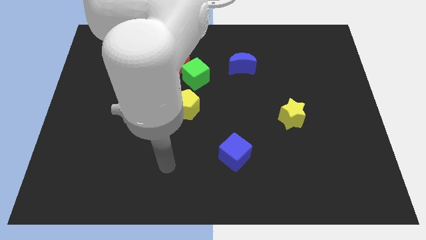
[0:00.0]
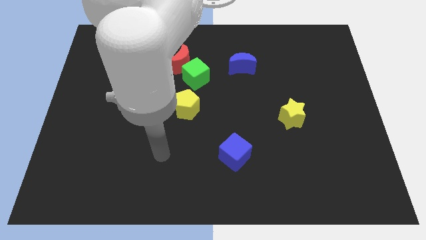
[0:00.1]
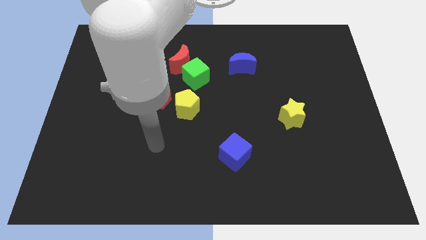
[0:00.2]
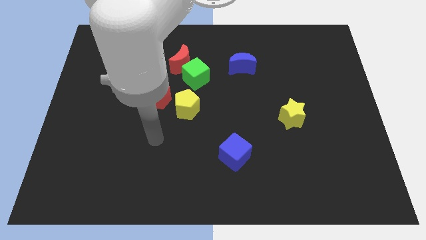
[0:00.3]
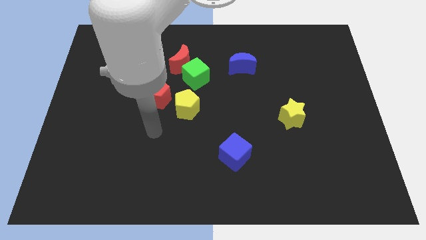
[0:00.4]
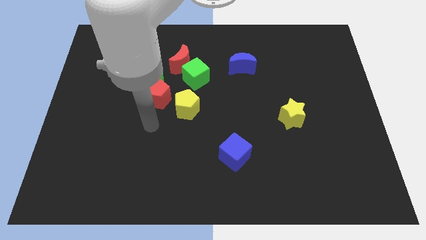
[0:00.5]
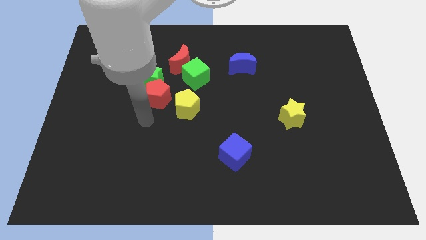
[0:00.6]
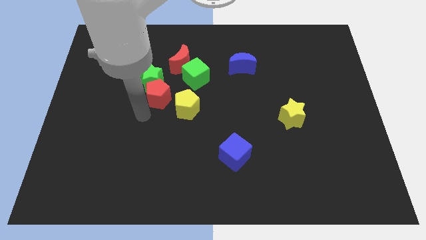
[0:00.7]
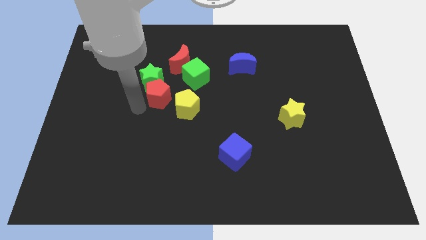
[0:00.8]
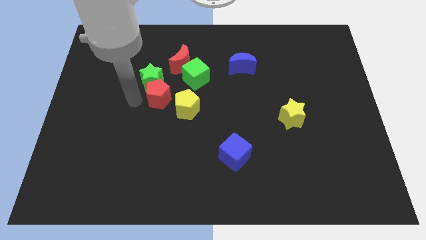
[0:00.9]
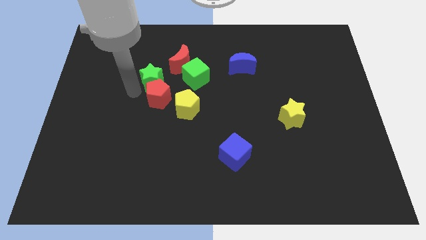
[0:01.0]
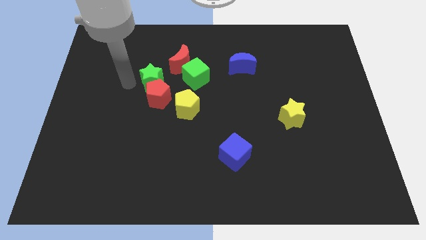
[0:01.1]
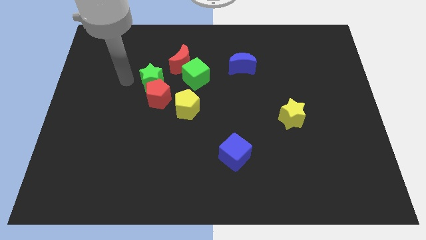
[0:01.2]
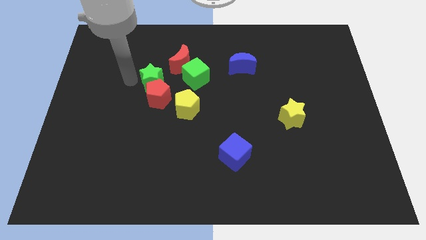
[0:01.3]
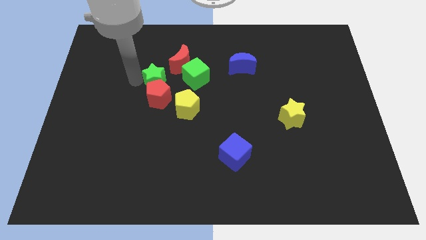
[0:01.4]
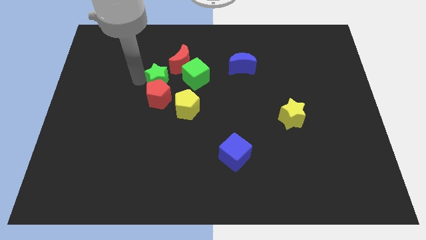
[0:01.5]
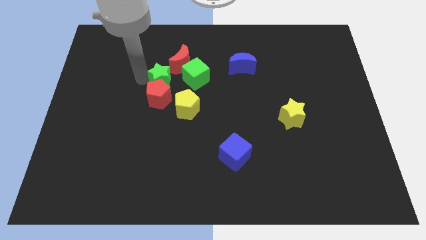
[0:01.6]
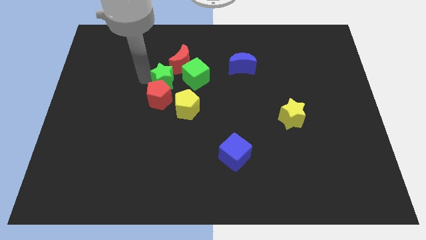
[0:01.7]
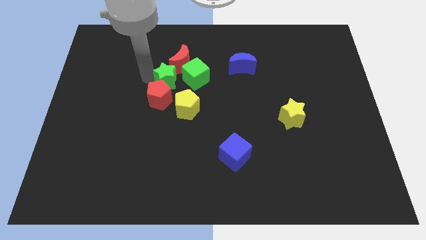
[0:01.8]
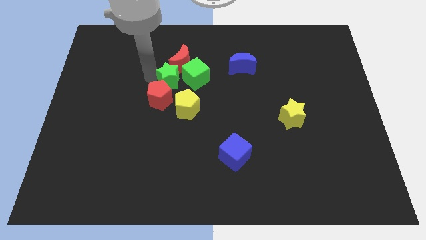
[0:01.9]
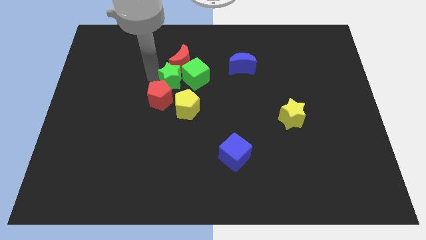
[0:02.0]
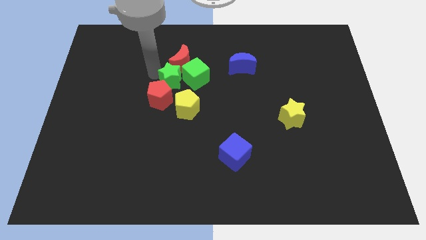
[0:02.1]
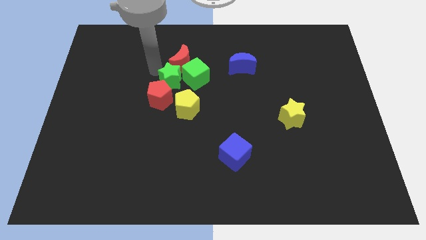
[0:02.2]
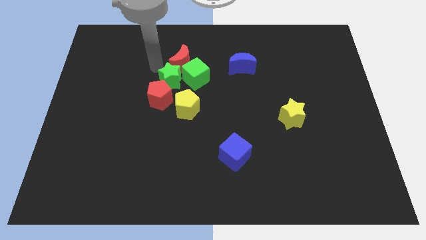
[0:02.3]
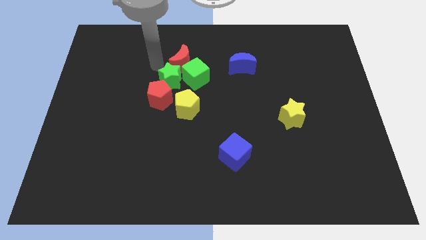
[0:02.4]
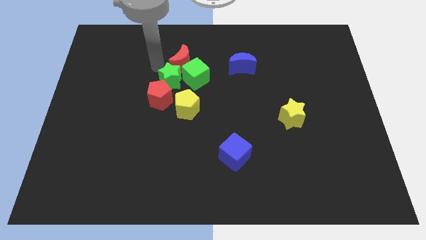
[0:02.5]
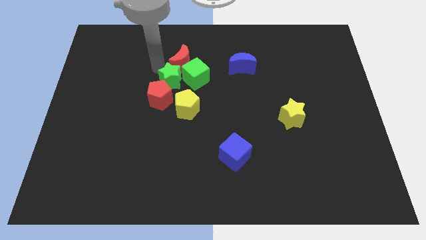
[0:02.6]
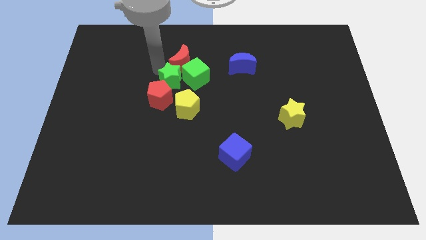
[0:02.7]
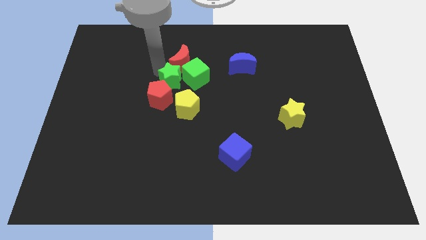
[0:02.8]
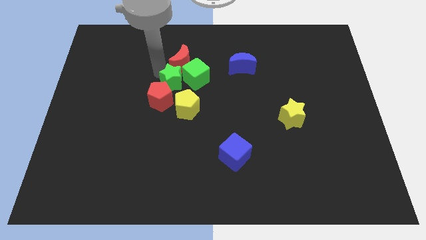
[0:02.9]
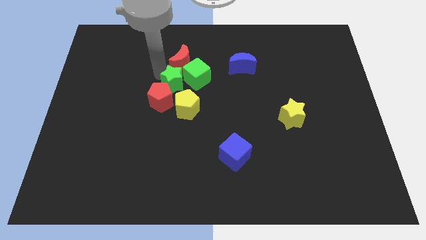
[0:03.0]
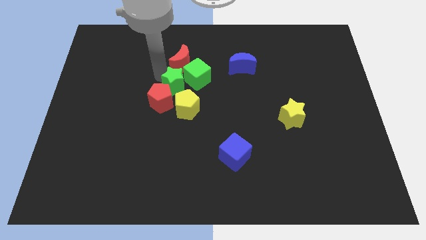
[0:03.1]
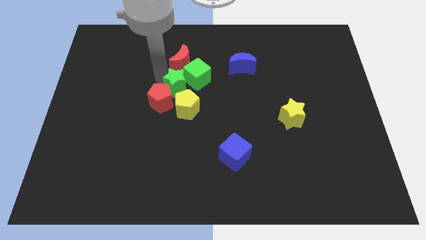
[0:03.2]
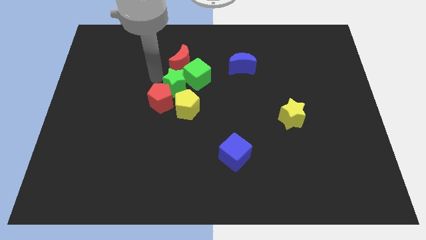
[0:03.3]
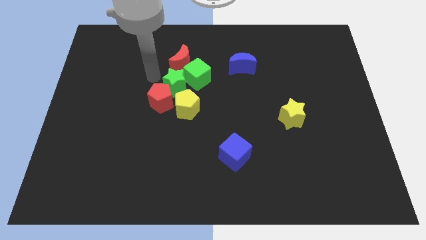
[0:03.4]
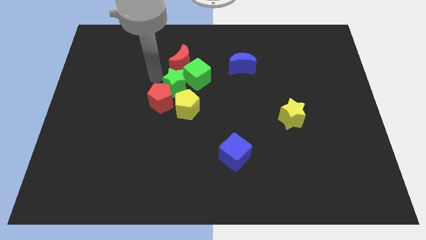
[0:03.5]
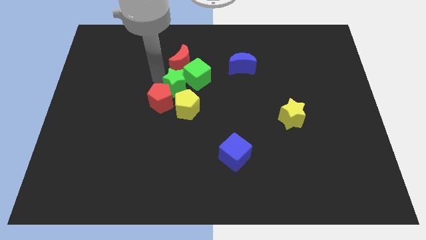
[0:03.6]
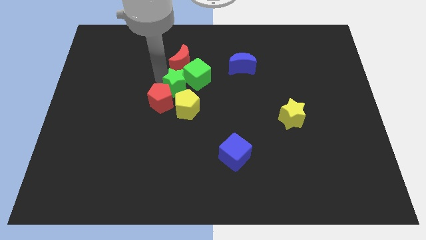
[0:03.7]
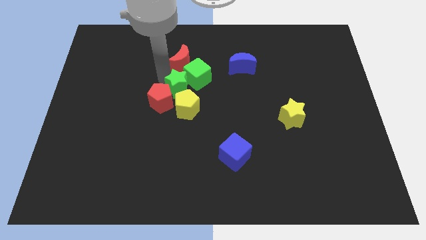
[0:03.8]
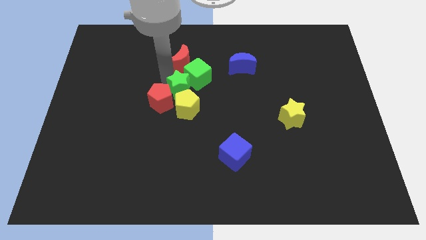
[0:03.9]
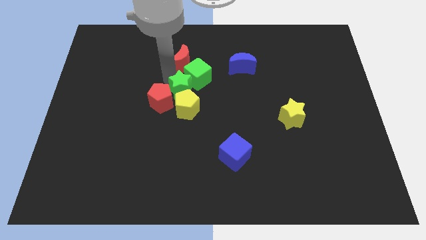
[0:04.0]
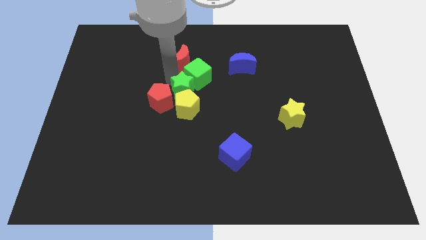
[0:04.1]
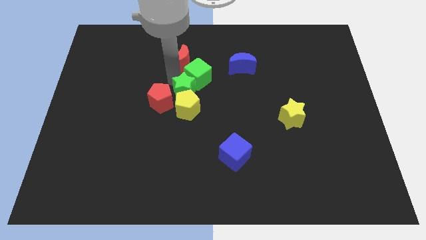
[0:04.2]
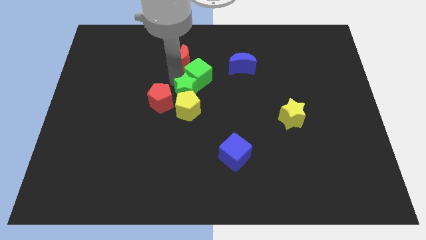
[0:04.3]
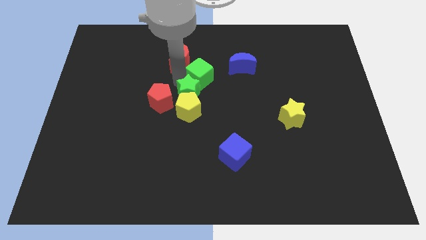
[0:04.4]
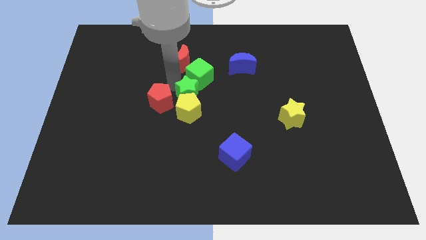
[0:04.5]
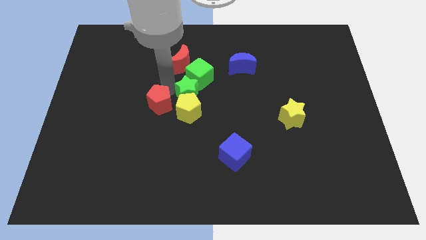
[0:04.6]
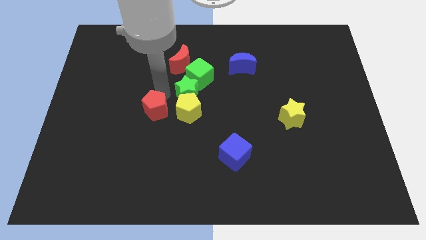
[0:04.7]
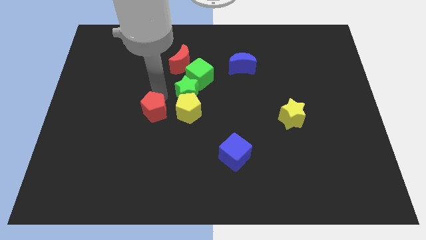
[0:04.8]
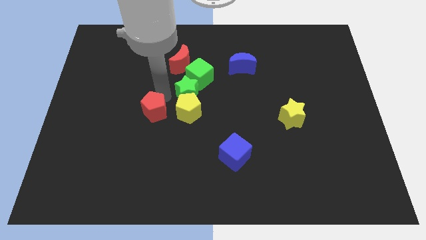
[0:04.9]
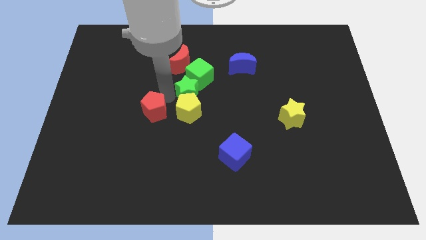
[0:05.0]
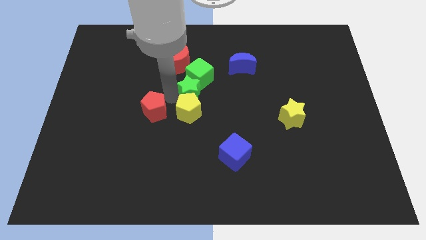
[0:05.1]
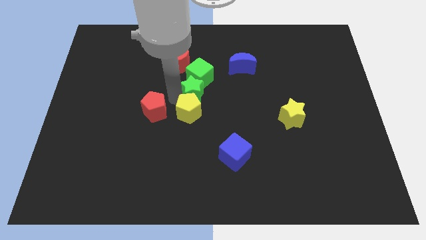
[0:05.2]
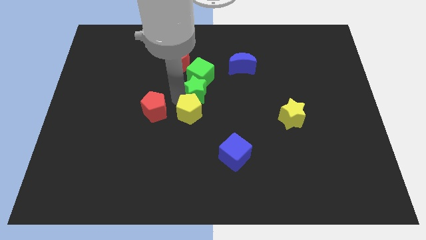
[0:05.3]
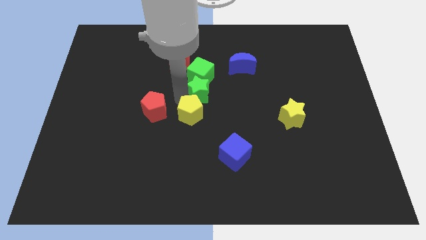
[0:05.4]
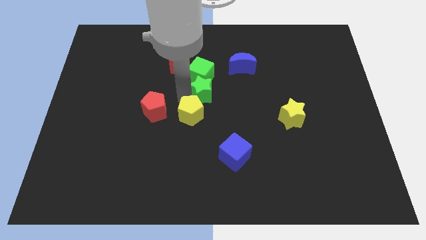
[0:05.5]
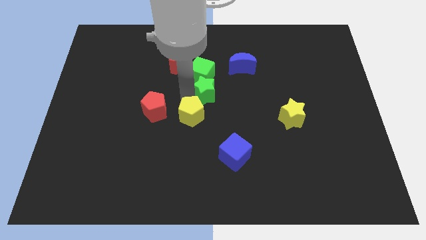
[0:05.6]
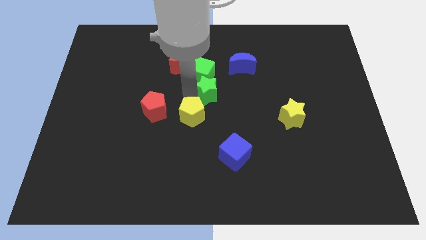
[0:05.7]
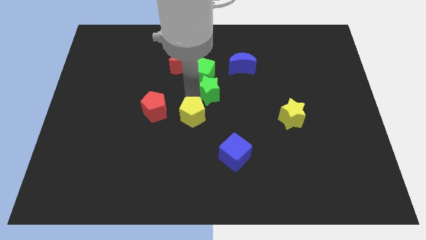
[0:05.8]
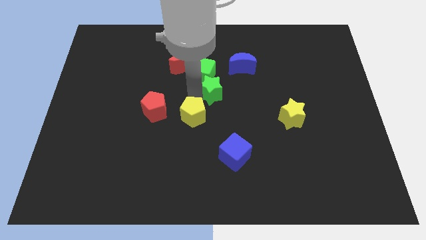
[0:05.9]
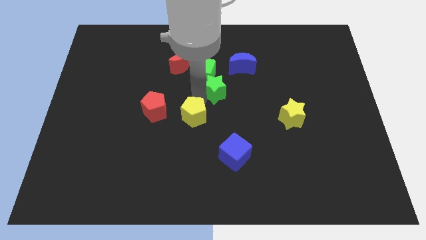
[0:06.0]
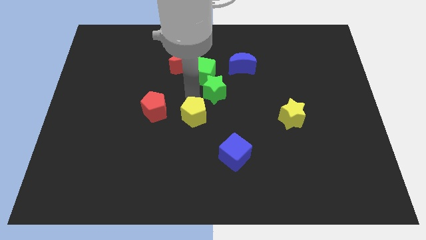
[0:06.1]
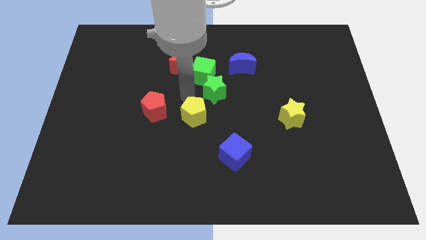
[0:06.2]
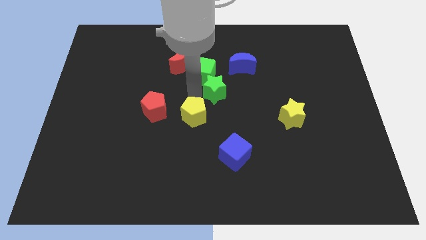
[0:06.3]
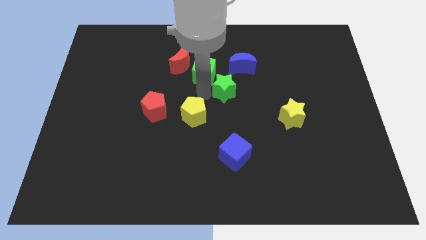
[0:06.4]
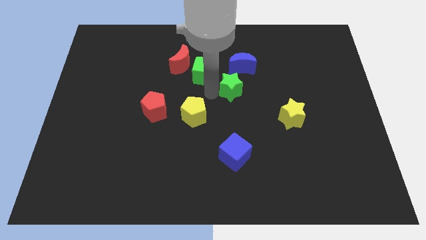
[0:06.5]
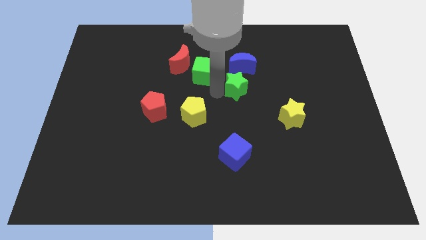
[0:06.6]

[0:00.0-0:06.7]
move the green star to the right

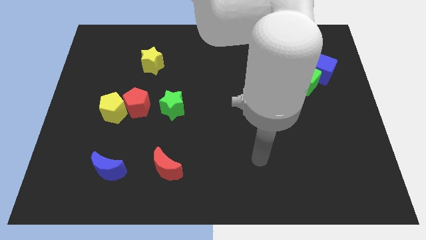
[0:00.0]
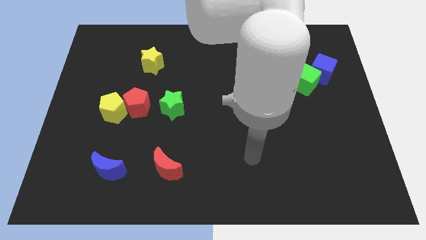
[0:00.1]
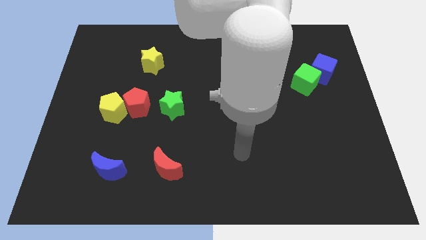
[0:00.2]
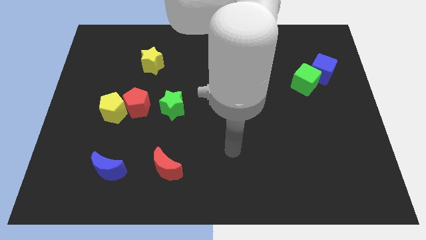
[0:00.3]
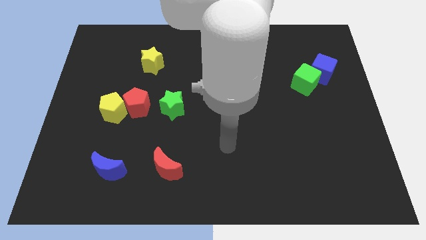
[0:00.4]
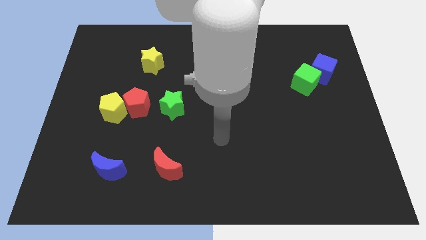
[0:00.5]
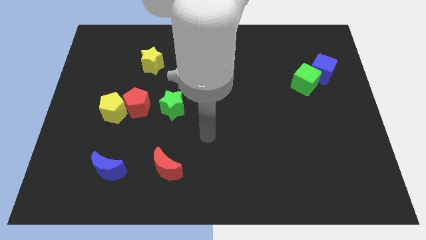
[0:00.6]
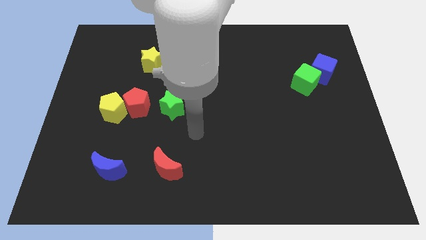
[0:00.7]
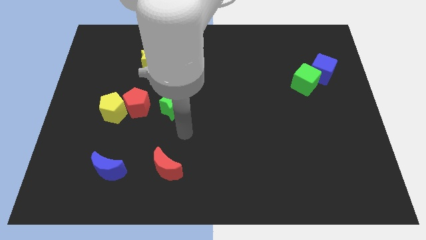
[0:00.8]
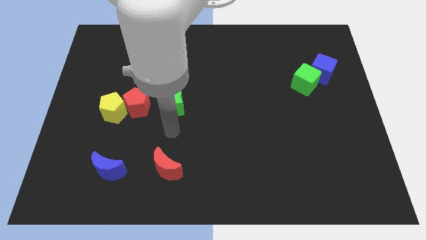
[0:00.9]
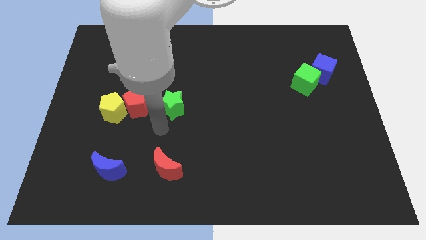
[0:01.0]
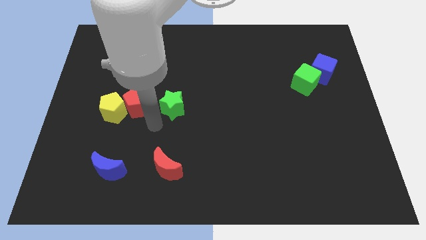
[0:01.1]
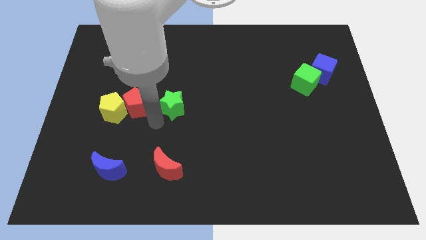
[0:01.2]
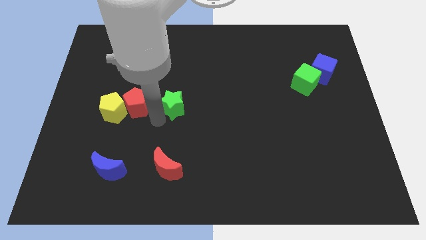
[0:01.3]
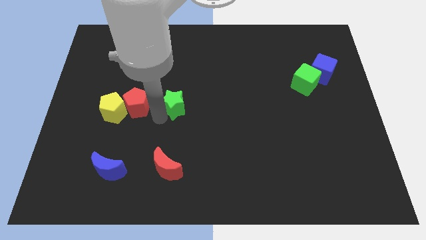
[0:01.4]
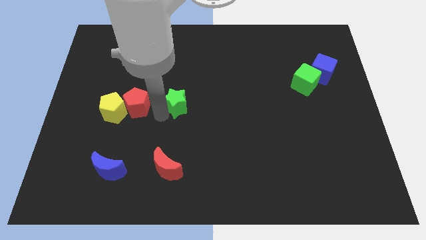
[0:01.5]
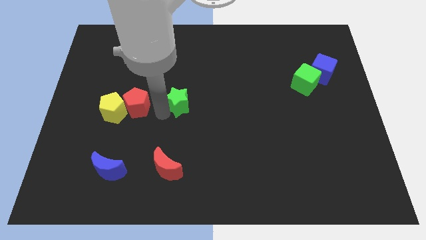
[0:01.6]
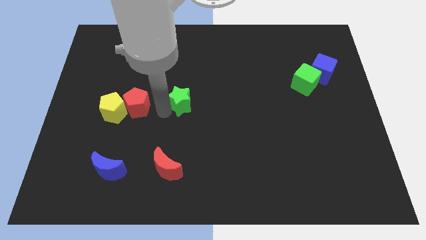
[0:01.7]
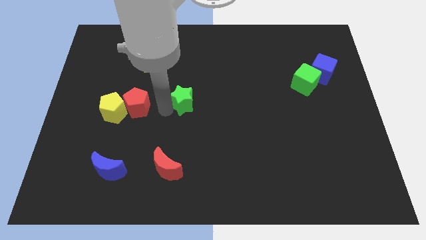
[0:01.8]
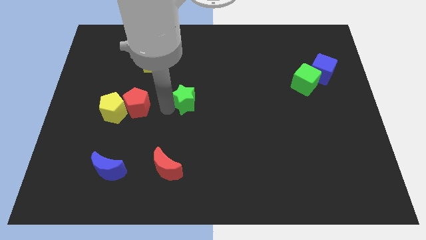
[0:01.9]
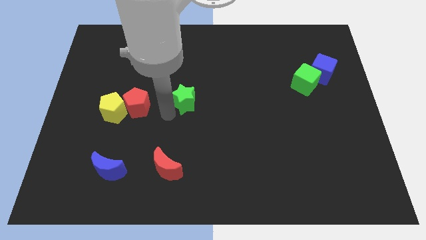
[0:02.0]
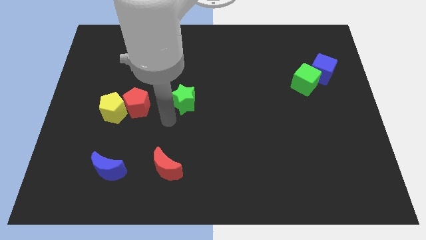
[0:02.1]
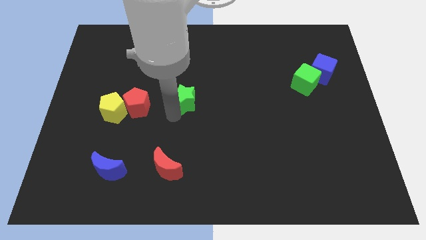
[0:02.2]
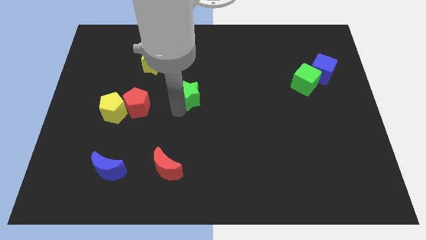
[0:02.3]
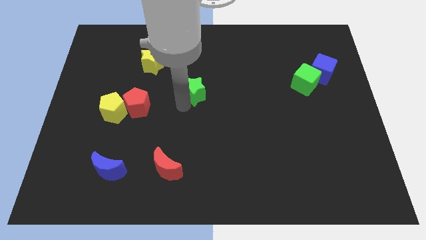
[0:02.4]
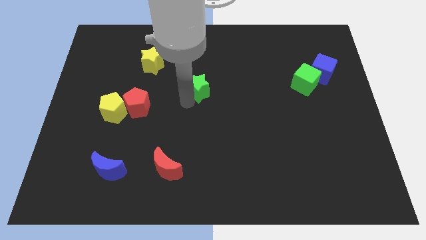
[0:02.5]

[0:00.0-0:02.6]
slide the green star a little diagonally upwards and to the right
